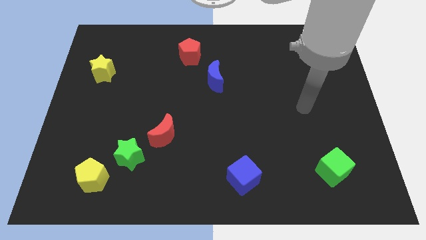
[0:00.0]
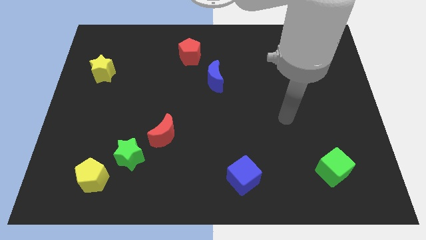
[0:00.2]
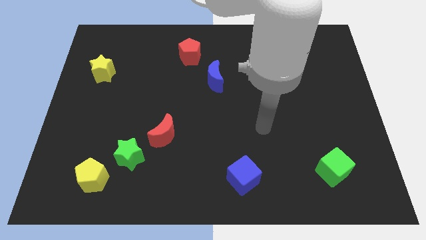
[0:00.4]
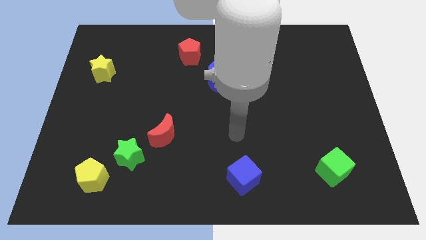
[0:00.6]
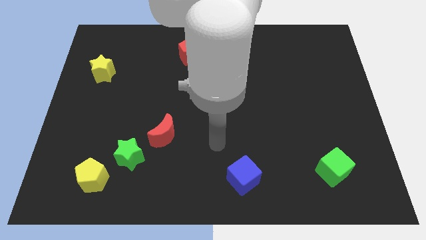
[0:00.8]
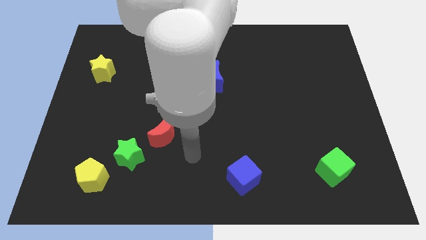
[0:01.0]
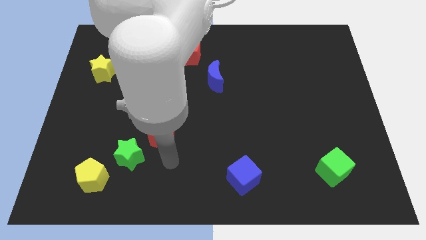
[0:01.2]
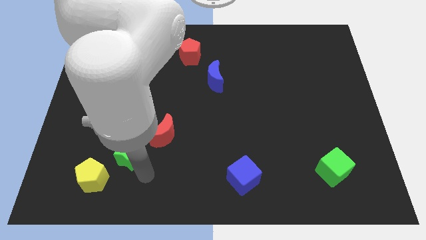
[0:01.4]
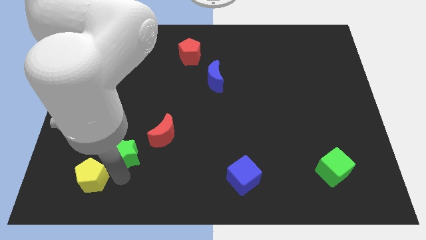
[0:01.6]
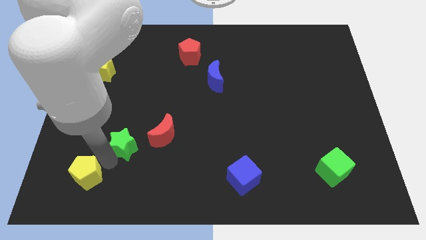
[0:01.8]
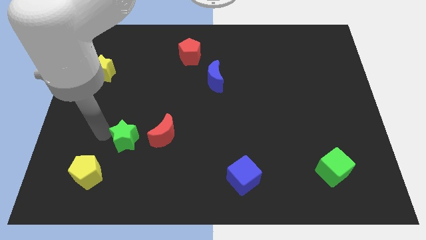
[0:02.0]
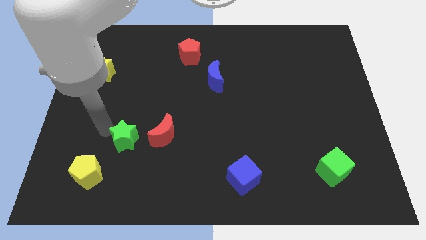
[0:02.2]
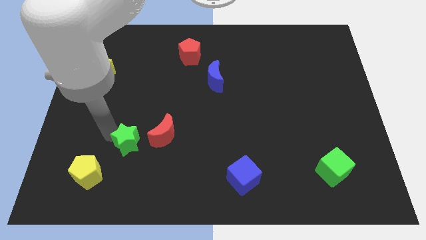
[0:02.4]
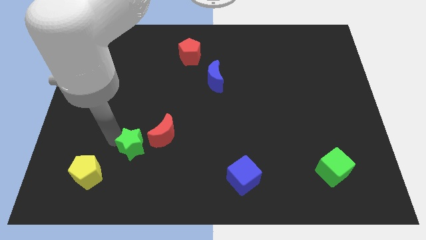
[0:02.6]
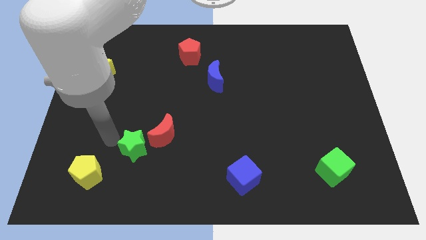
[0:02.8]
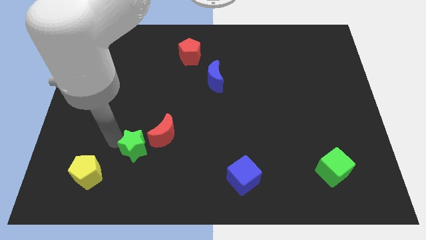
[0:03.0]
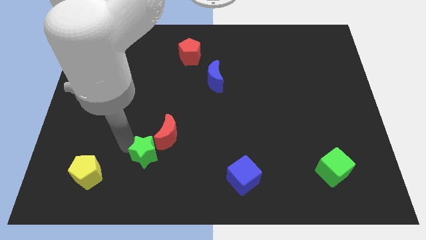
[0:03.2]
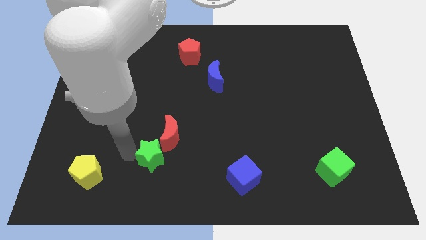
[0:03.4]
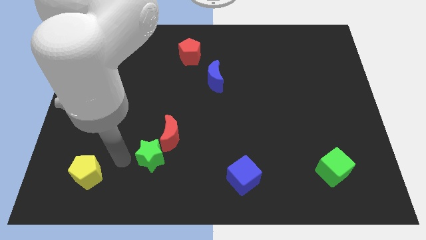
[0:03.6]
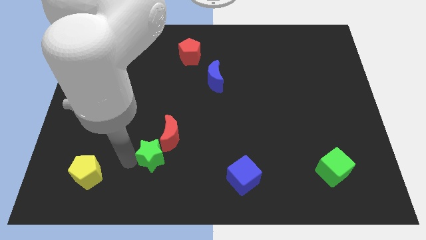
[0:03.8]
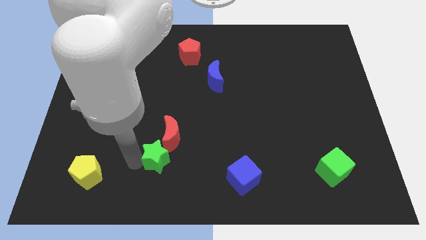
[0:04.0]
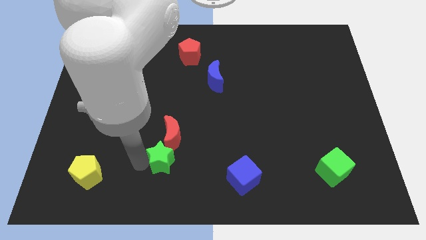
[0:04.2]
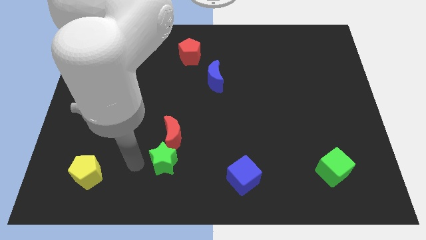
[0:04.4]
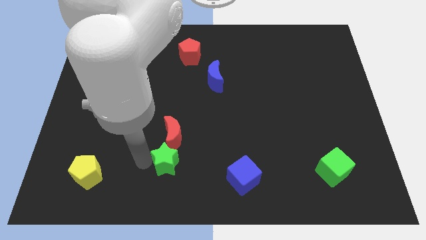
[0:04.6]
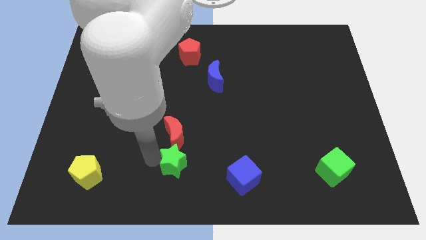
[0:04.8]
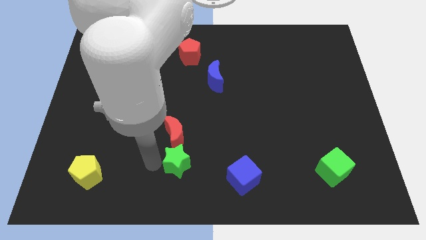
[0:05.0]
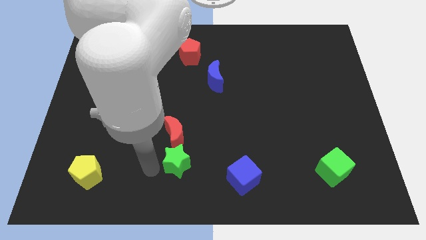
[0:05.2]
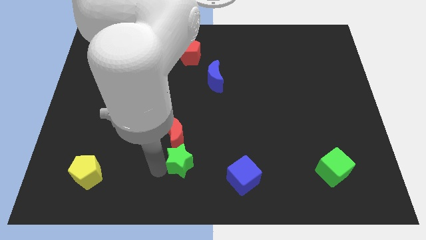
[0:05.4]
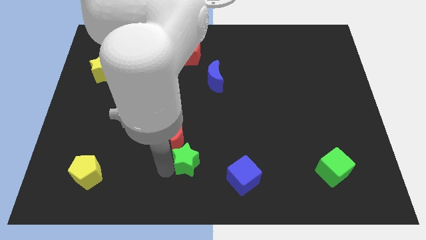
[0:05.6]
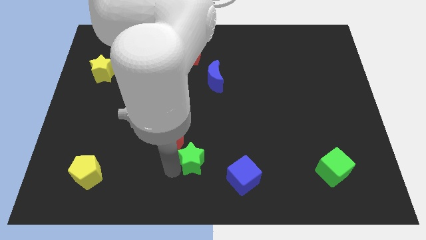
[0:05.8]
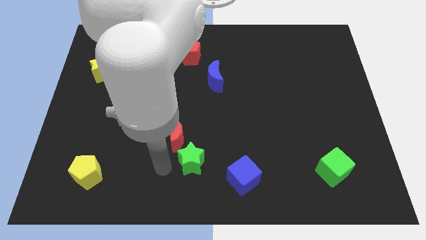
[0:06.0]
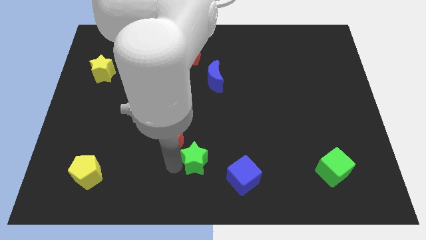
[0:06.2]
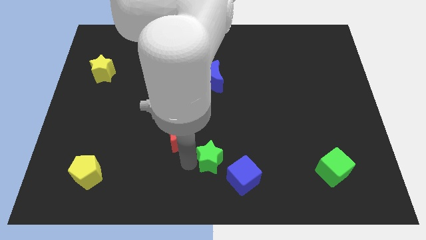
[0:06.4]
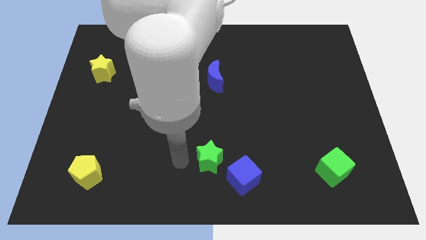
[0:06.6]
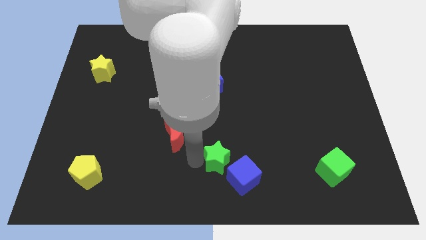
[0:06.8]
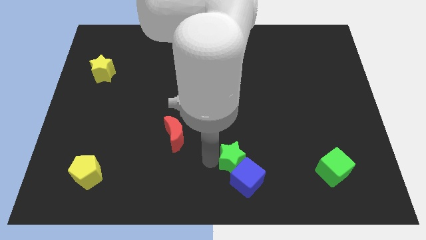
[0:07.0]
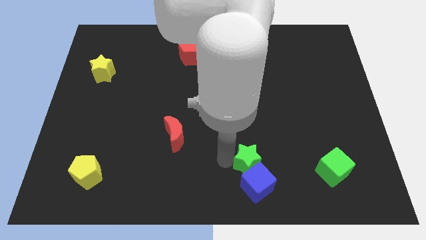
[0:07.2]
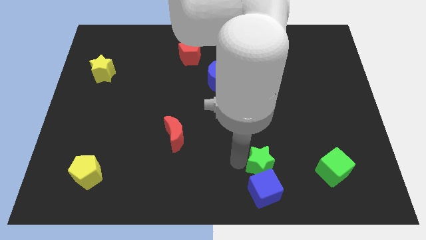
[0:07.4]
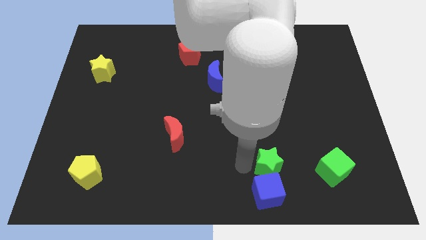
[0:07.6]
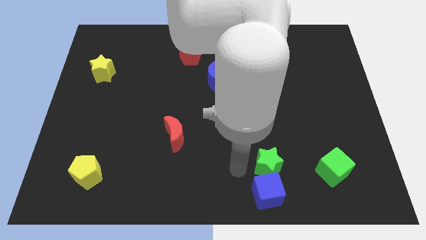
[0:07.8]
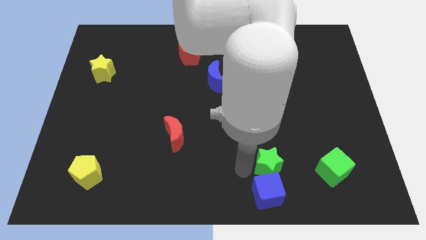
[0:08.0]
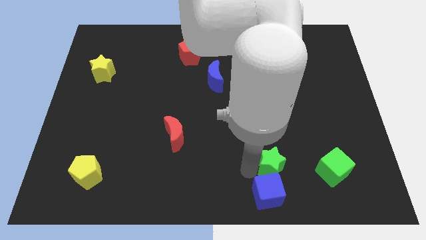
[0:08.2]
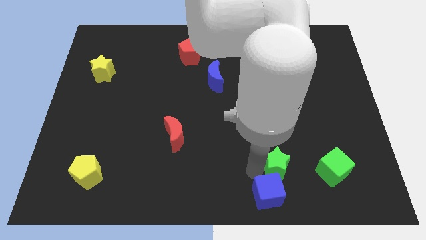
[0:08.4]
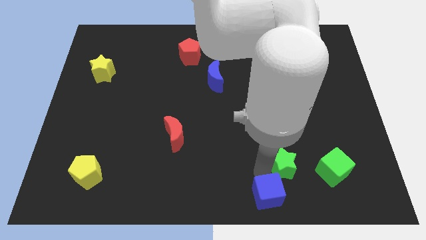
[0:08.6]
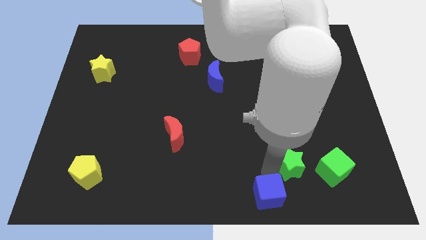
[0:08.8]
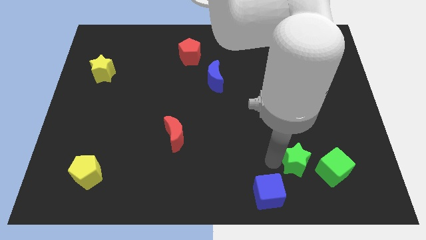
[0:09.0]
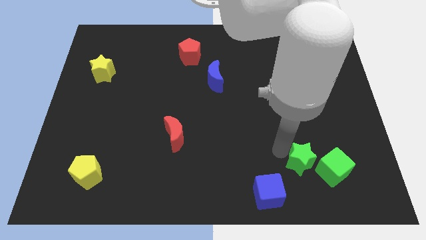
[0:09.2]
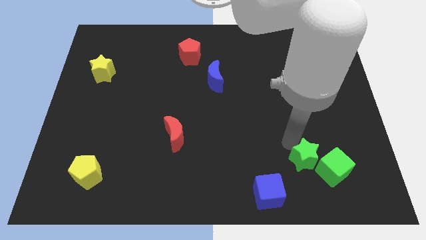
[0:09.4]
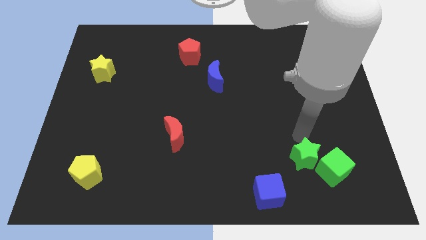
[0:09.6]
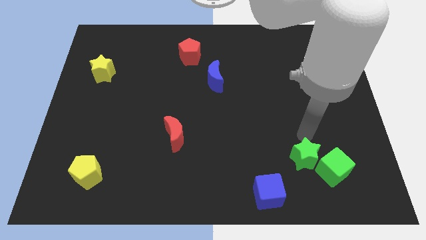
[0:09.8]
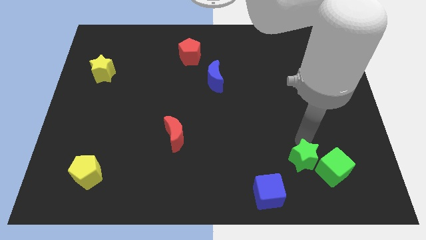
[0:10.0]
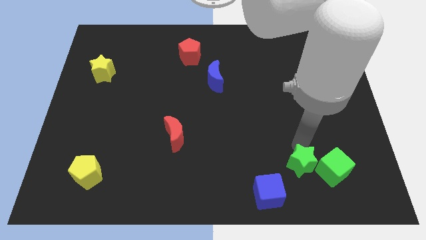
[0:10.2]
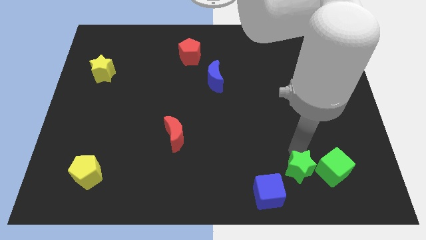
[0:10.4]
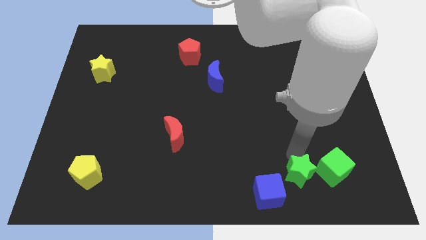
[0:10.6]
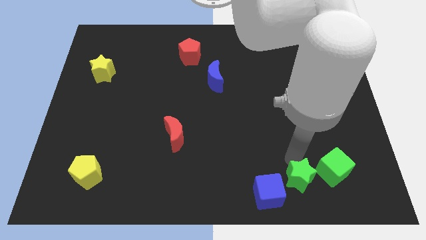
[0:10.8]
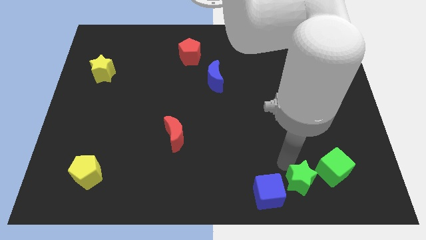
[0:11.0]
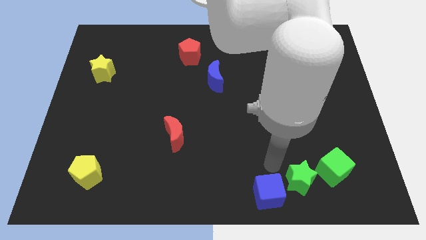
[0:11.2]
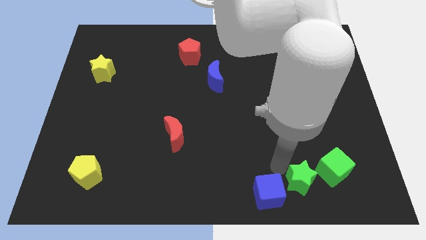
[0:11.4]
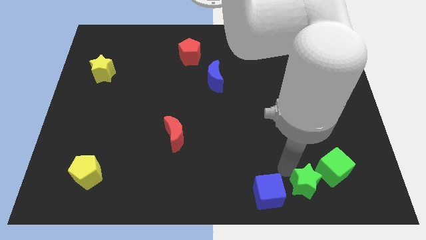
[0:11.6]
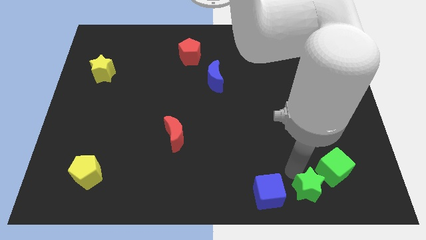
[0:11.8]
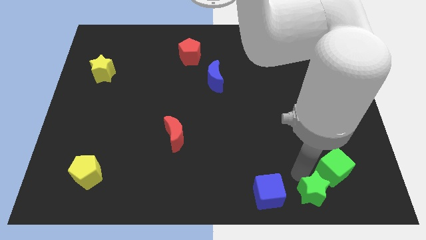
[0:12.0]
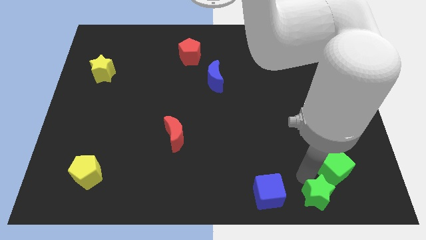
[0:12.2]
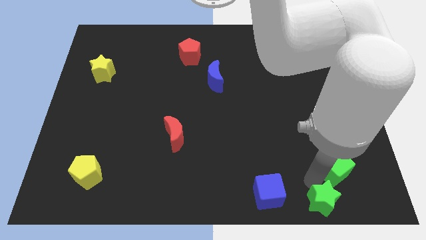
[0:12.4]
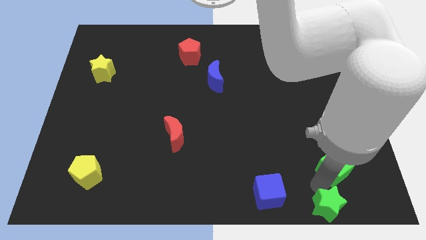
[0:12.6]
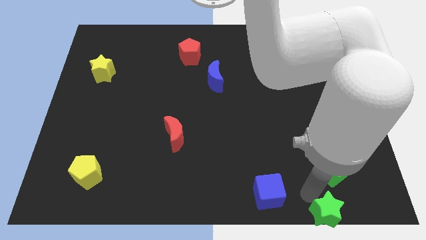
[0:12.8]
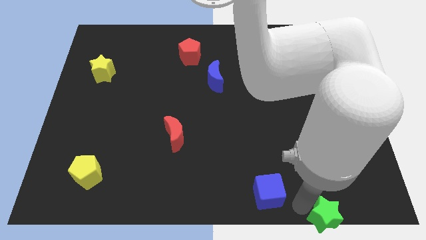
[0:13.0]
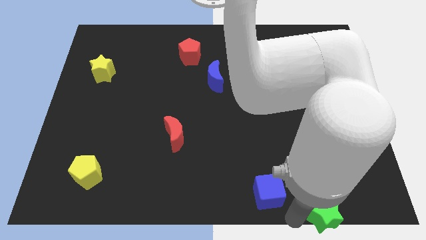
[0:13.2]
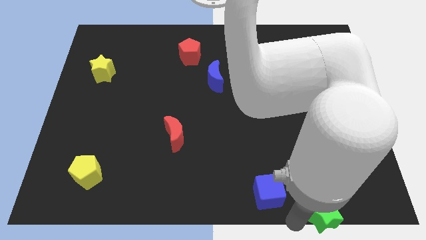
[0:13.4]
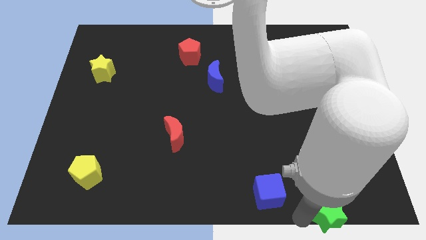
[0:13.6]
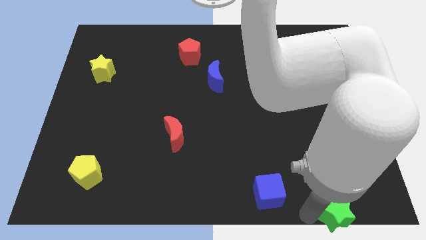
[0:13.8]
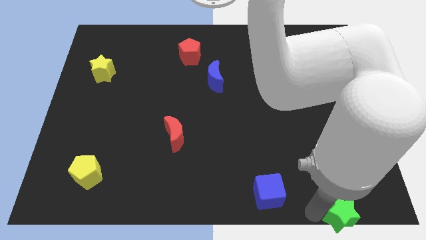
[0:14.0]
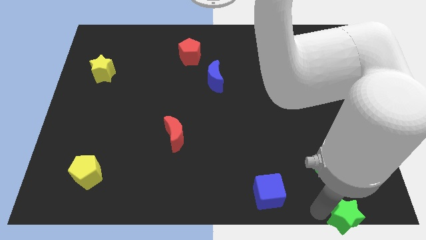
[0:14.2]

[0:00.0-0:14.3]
move the green star to the bottom right of the board
